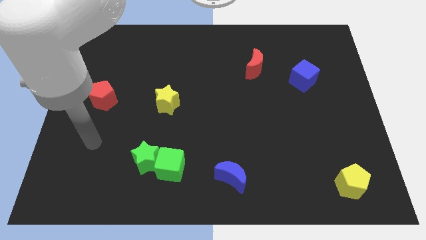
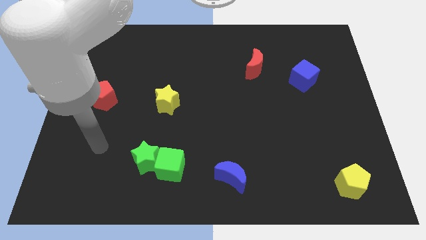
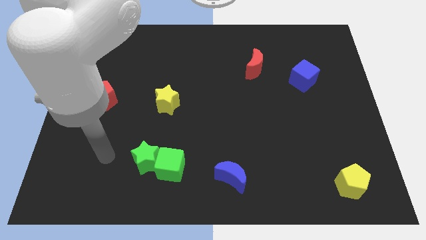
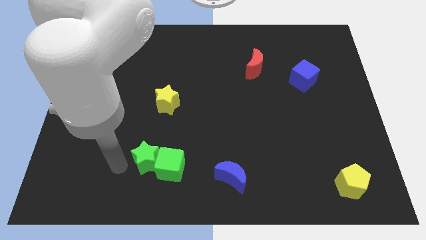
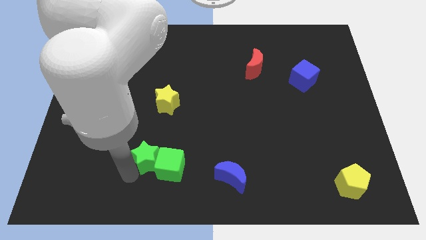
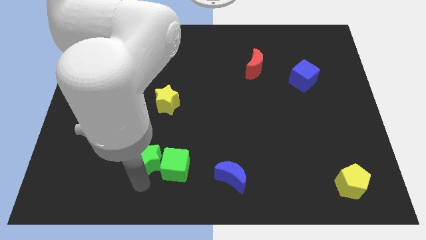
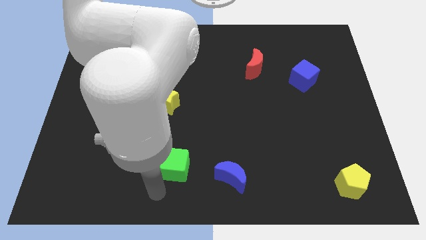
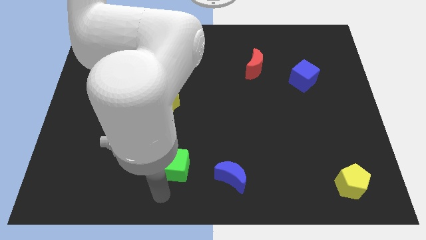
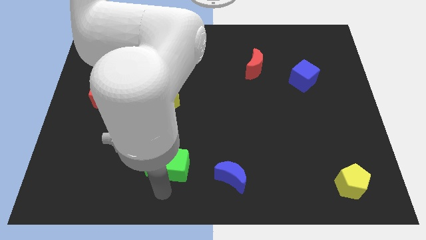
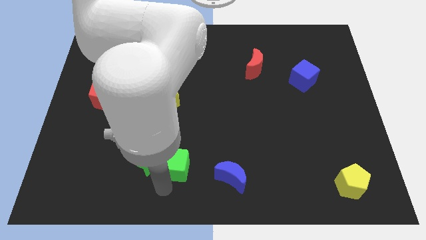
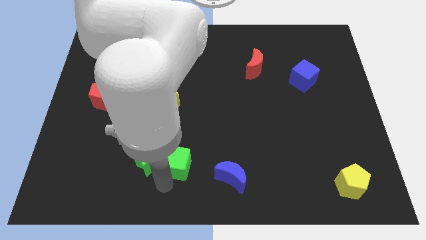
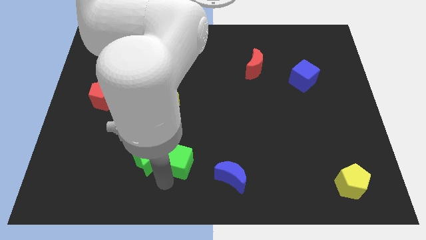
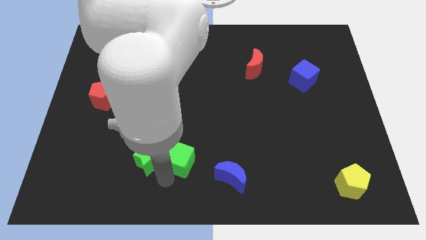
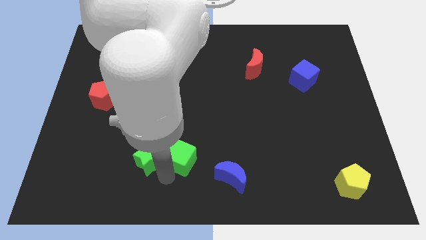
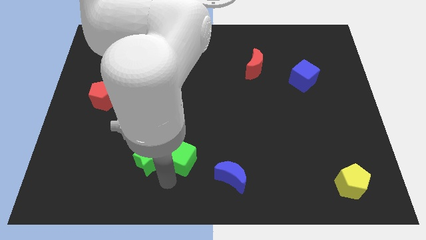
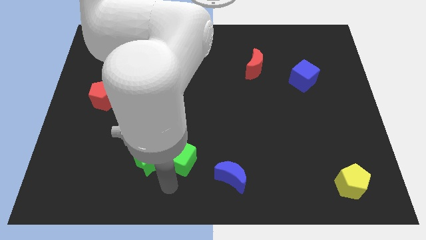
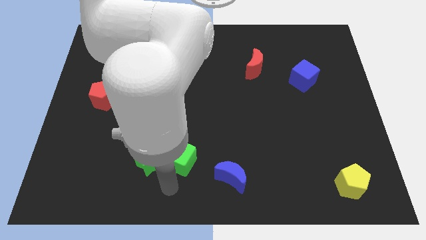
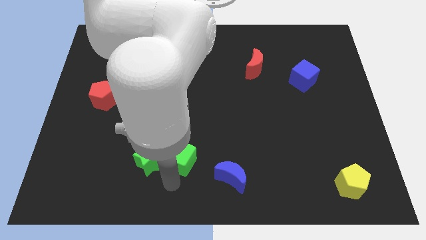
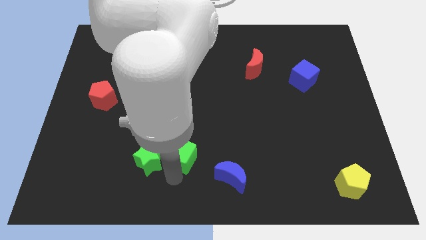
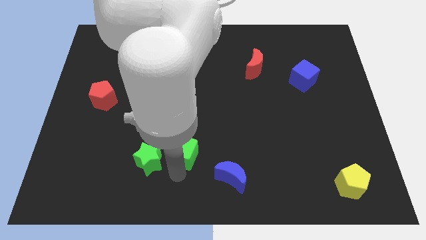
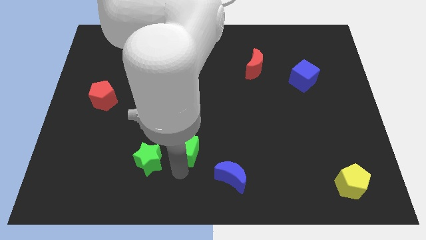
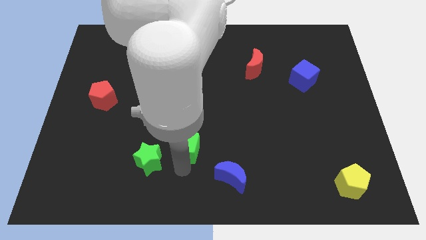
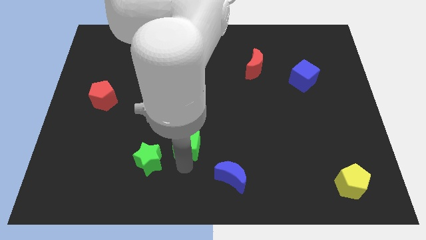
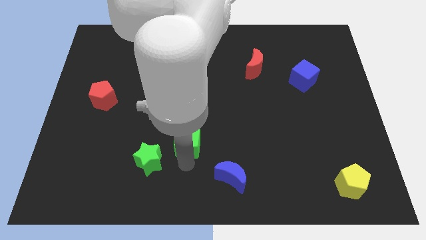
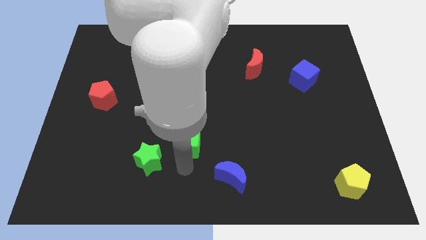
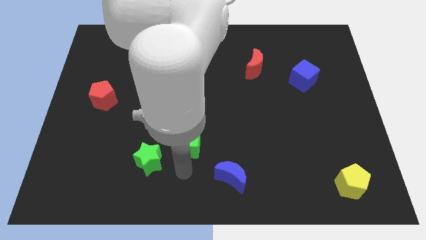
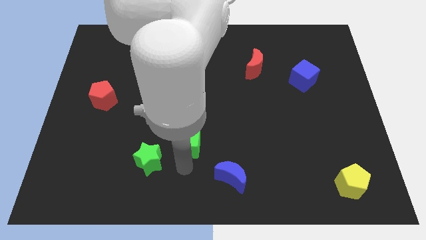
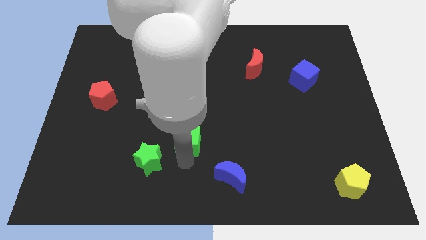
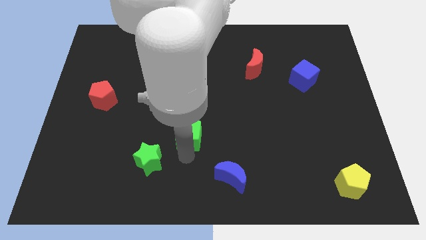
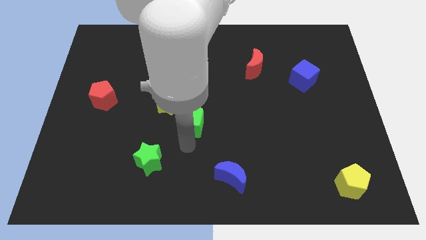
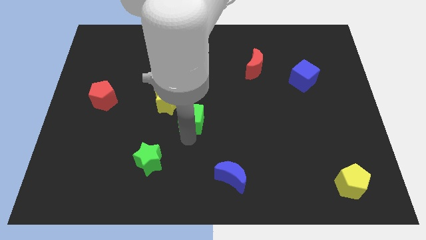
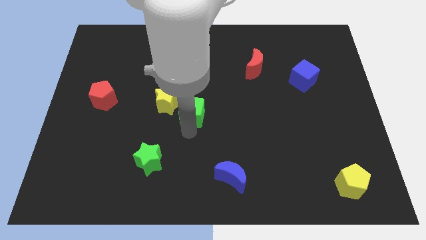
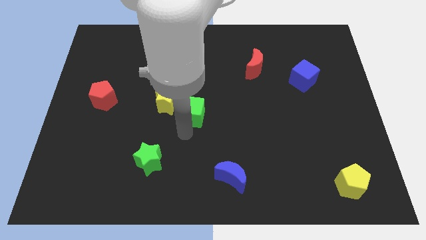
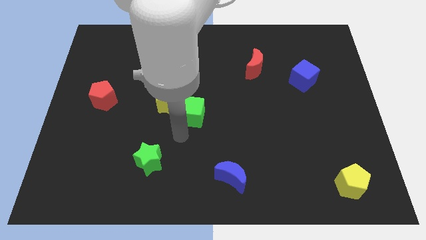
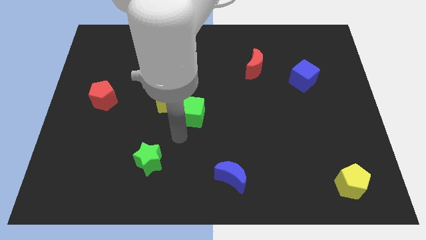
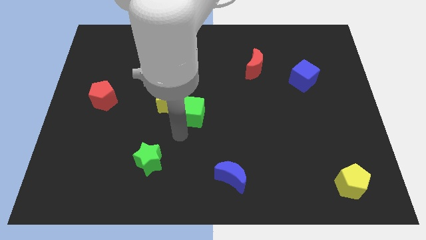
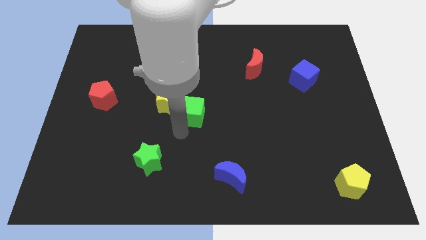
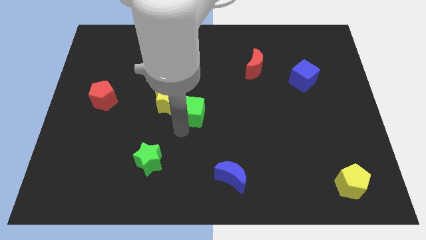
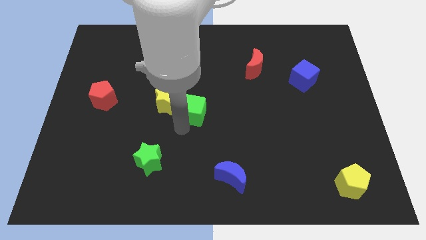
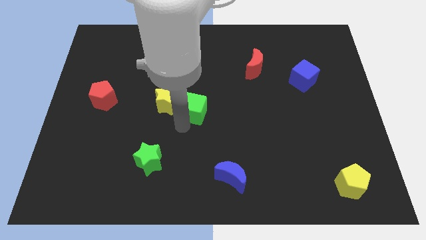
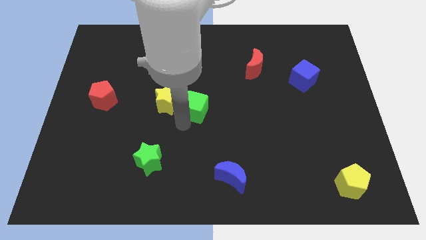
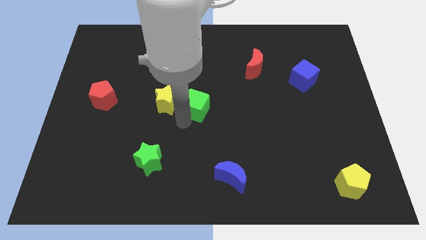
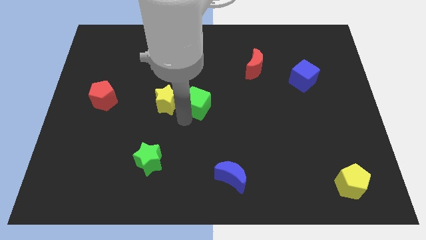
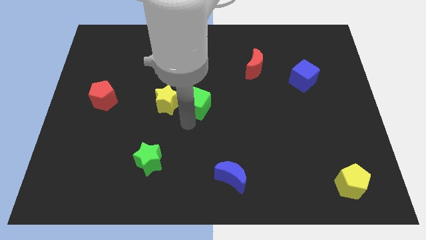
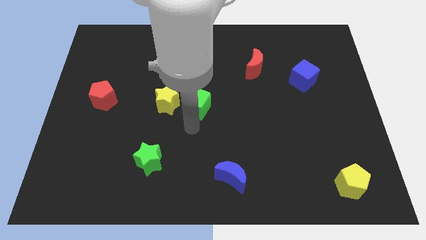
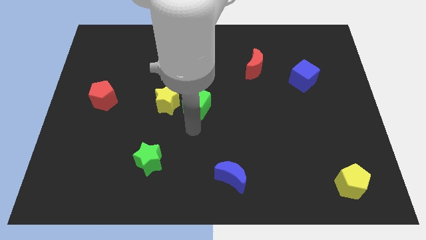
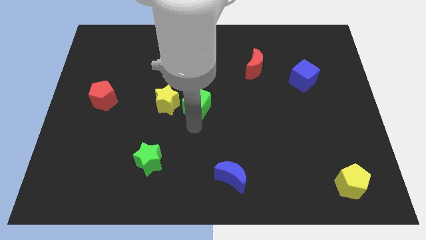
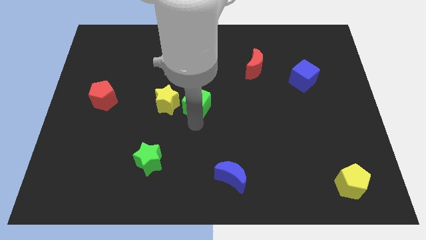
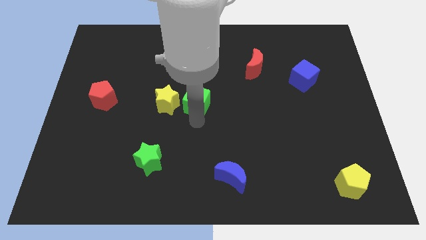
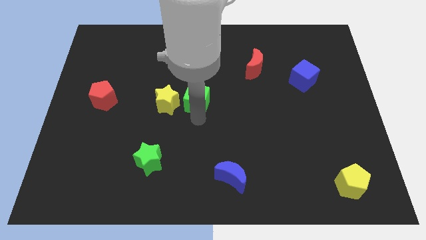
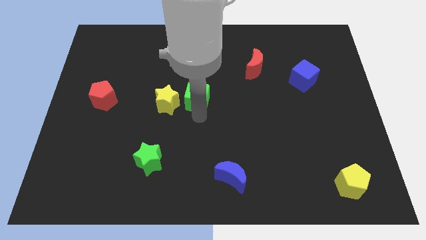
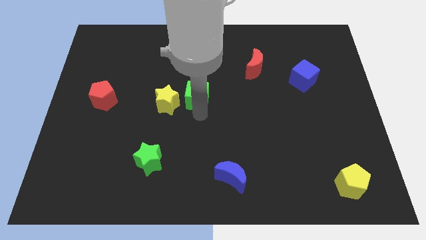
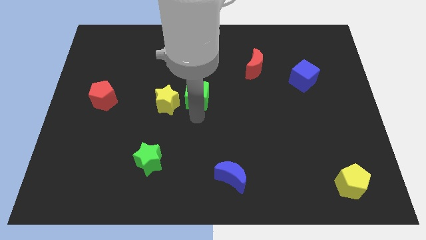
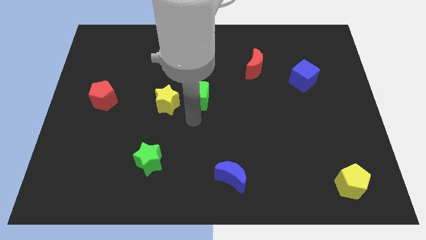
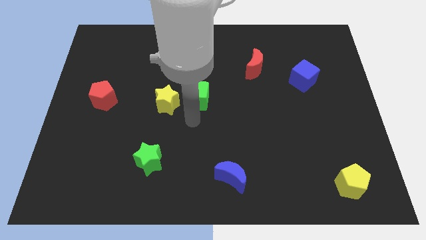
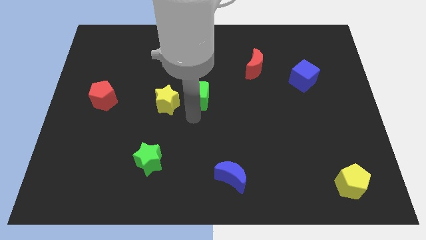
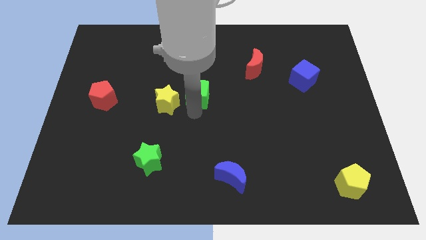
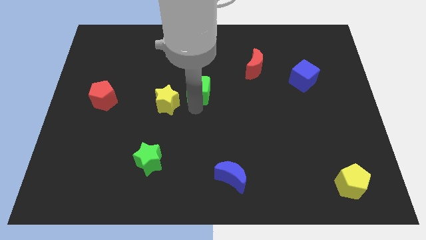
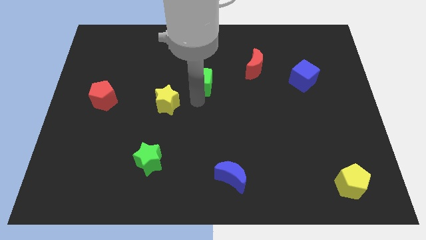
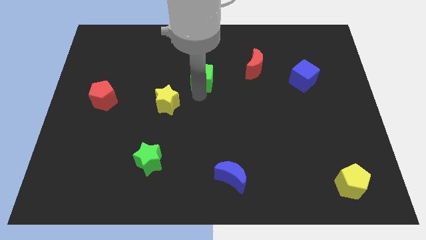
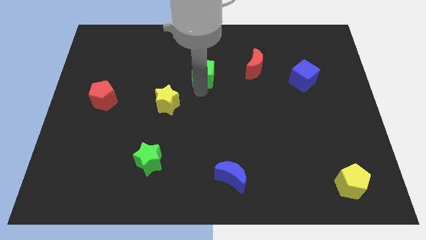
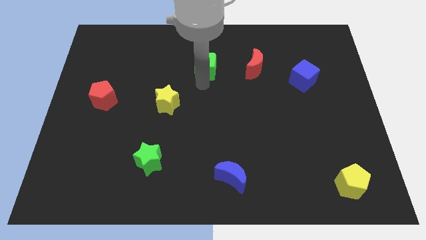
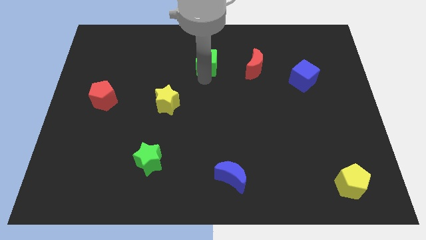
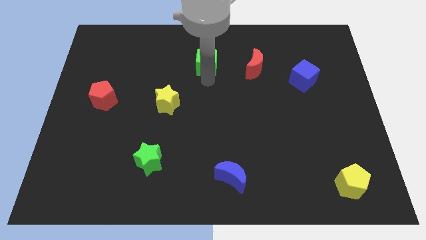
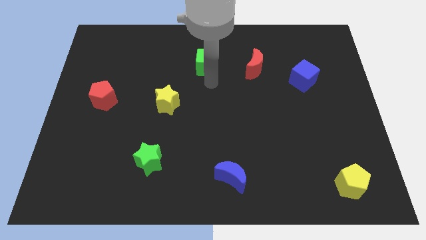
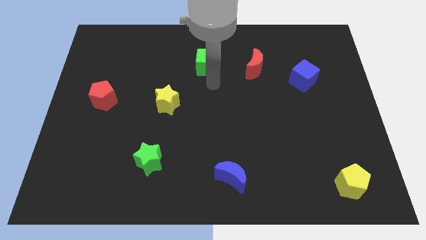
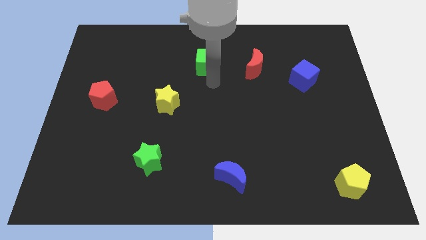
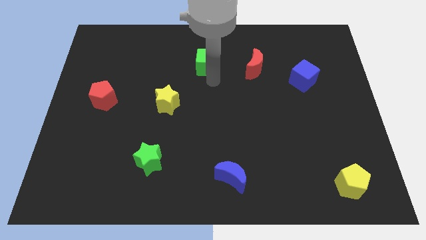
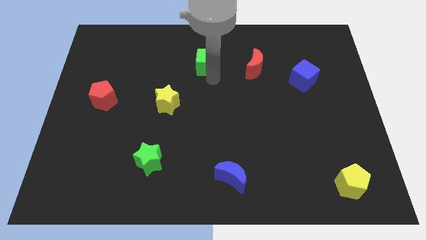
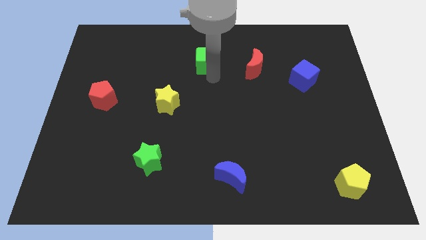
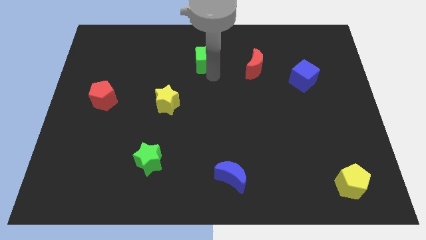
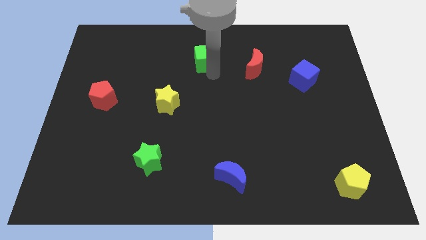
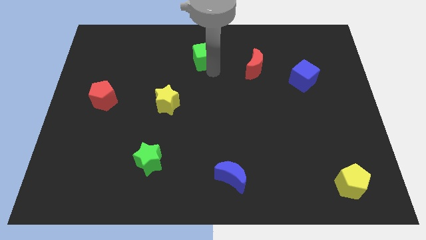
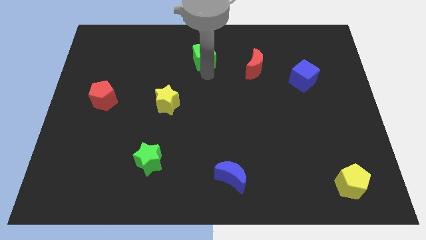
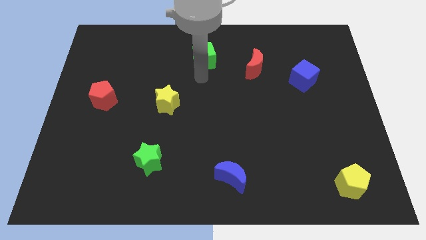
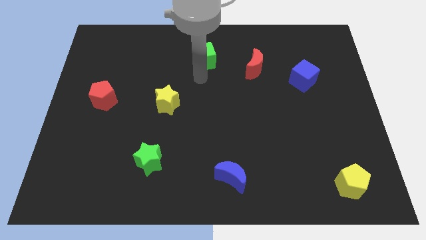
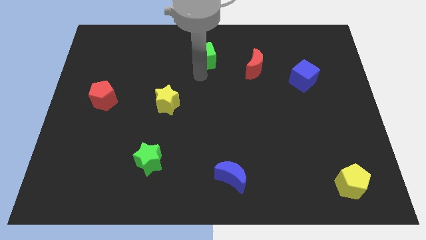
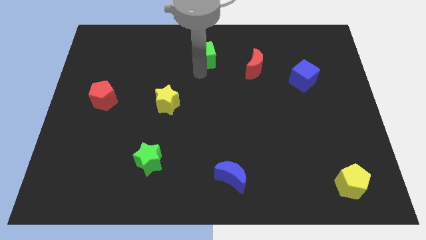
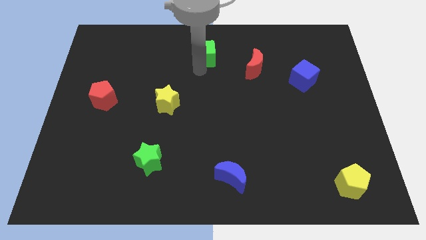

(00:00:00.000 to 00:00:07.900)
push the green cube to the top
